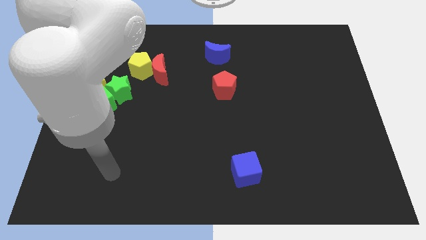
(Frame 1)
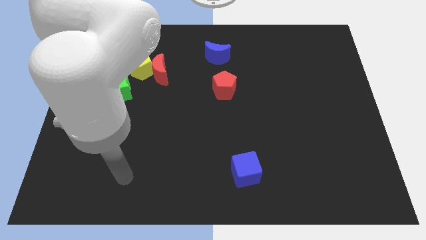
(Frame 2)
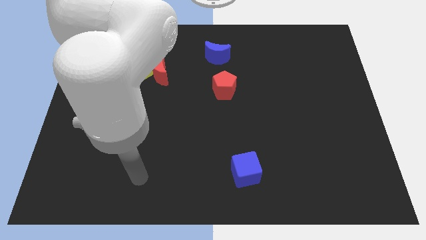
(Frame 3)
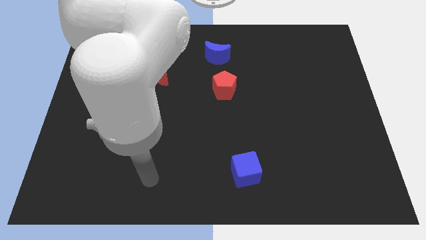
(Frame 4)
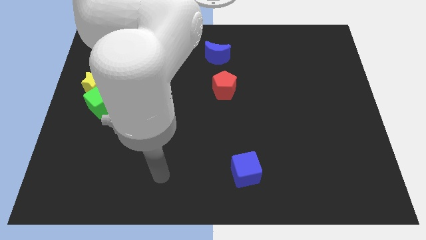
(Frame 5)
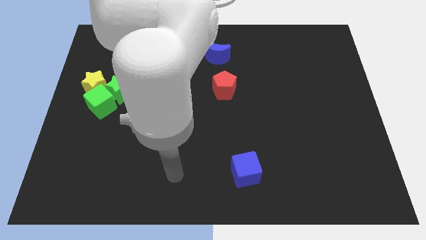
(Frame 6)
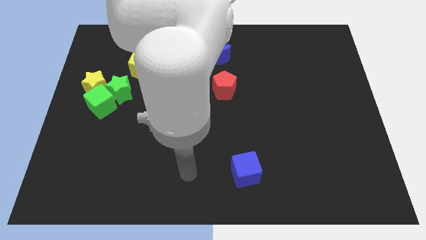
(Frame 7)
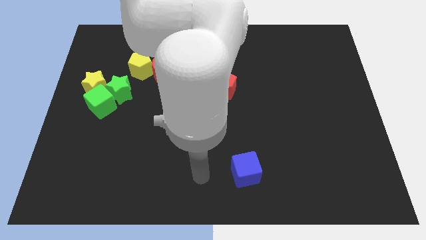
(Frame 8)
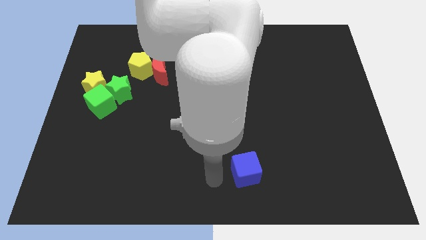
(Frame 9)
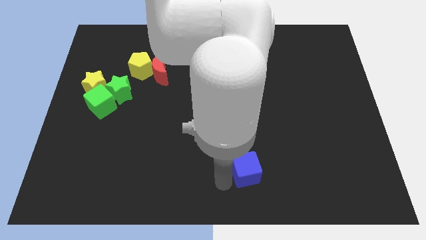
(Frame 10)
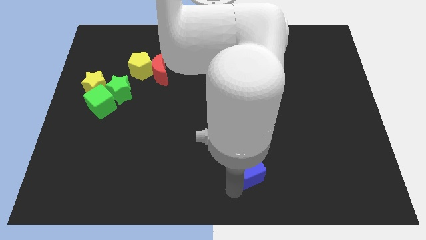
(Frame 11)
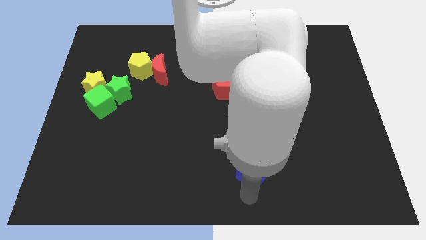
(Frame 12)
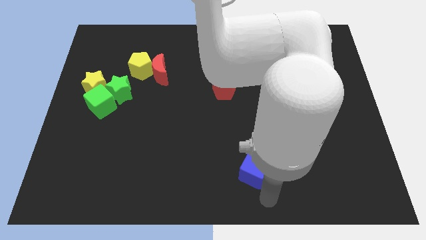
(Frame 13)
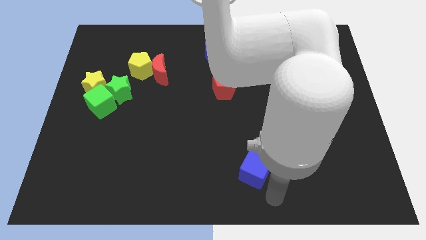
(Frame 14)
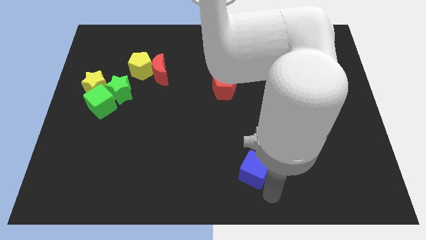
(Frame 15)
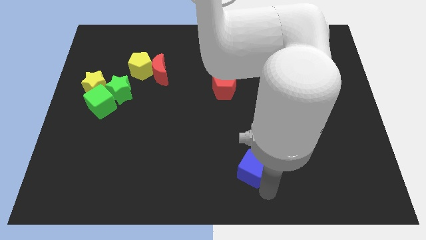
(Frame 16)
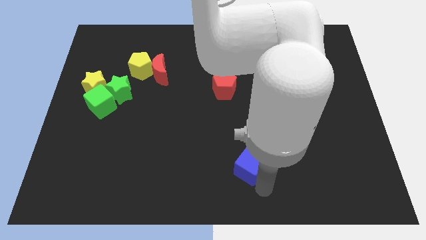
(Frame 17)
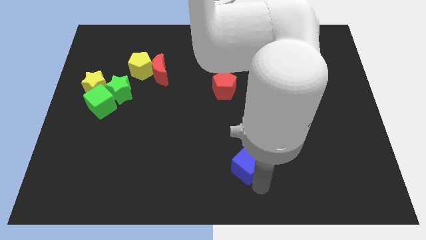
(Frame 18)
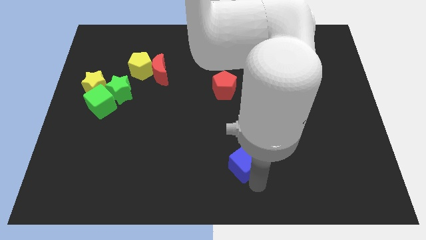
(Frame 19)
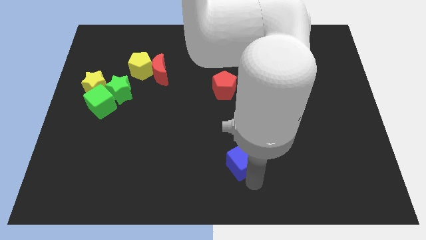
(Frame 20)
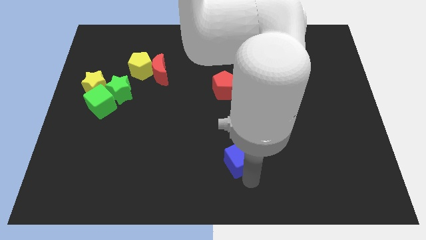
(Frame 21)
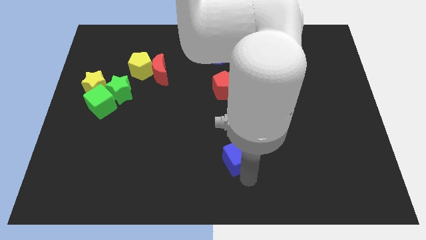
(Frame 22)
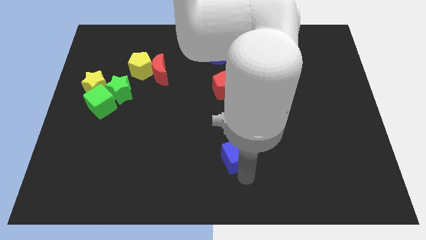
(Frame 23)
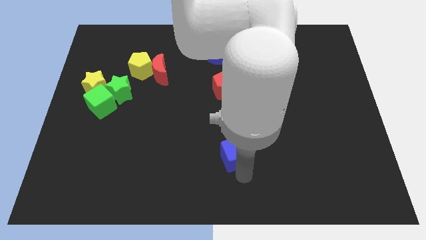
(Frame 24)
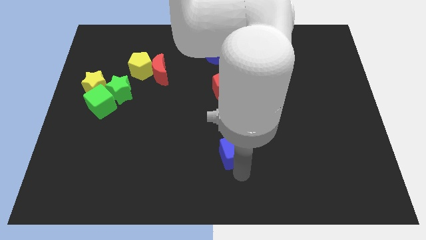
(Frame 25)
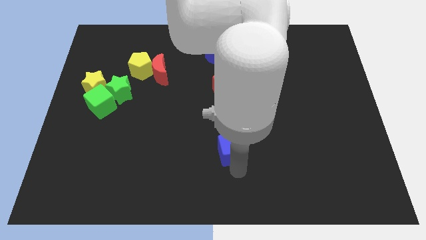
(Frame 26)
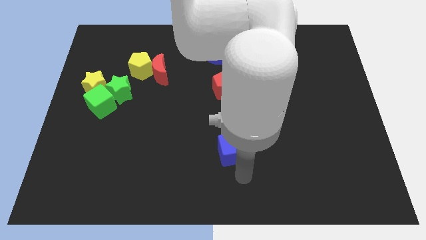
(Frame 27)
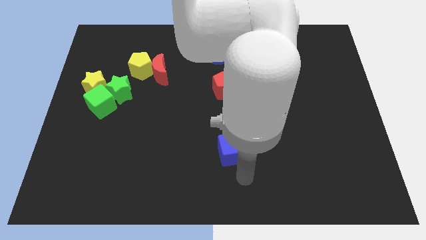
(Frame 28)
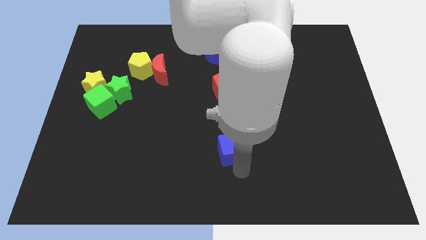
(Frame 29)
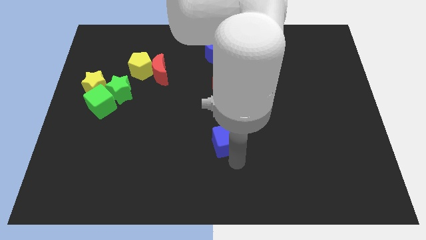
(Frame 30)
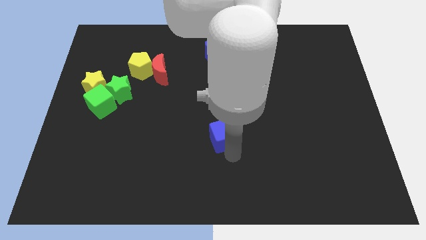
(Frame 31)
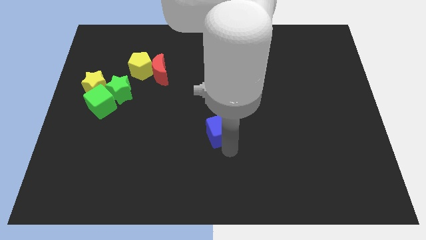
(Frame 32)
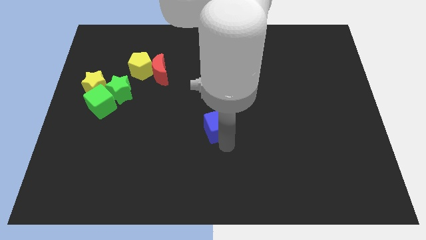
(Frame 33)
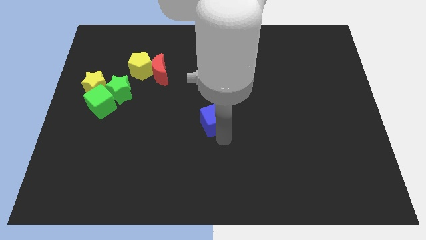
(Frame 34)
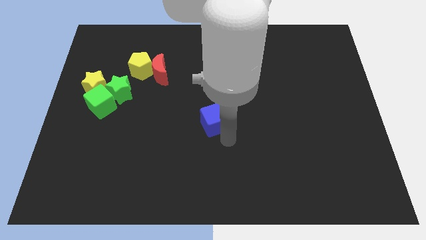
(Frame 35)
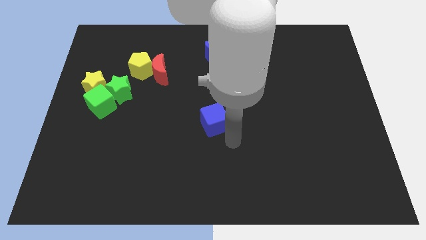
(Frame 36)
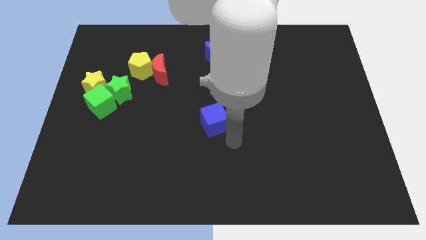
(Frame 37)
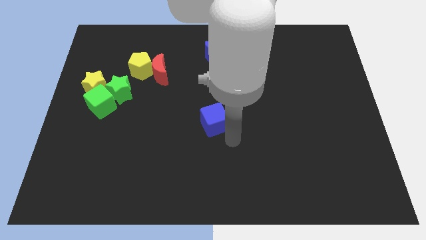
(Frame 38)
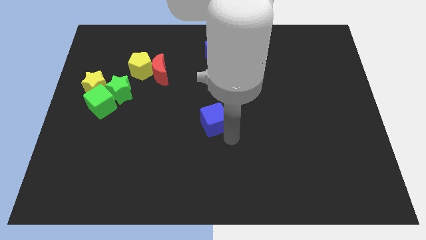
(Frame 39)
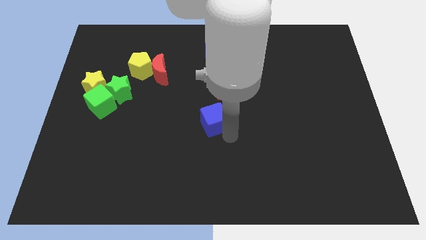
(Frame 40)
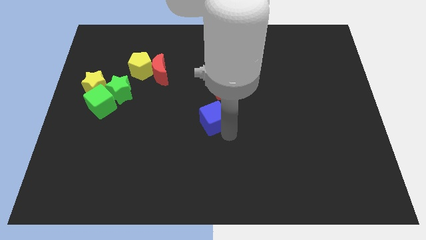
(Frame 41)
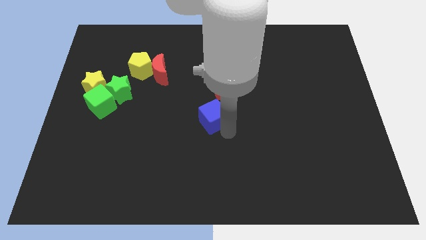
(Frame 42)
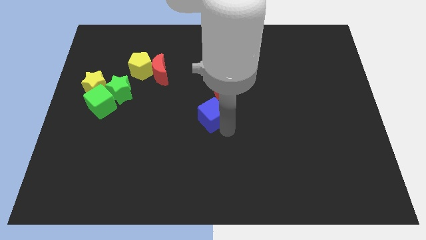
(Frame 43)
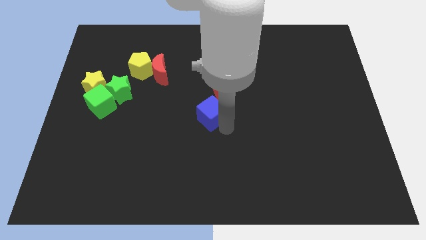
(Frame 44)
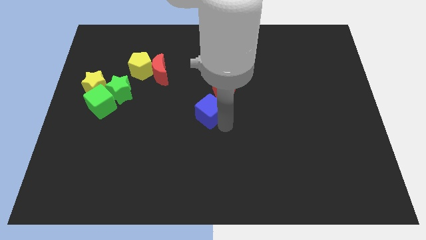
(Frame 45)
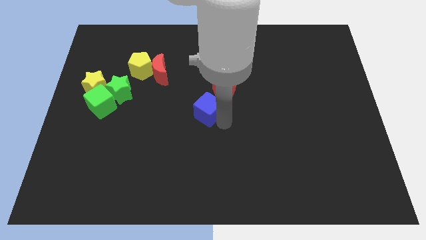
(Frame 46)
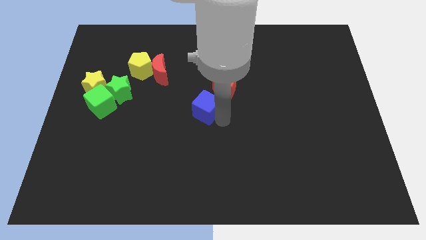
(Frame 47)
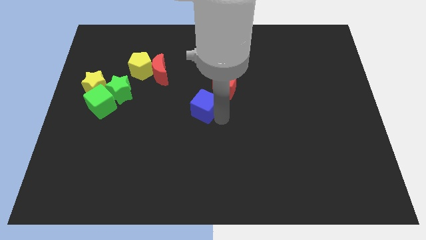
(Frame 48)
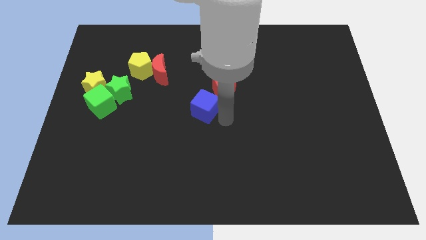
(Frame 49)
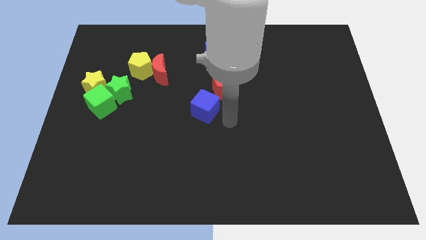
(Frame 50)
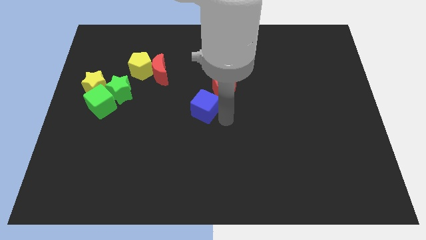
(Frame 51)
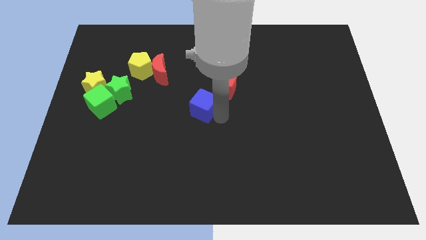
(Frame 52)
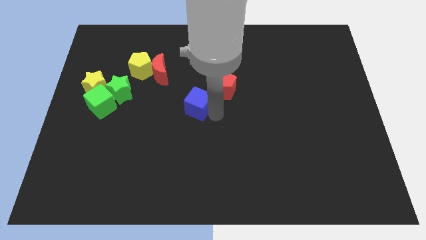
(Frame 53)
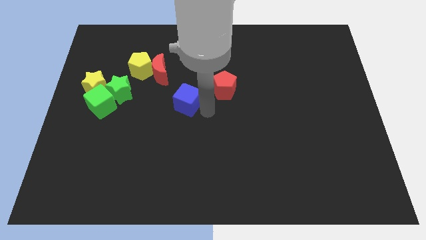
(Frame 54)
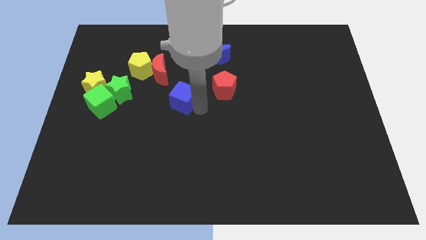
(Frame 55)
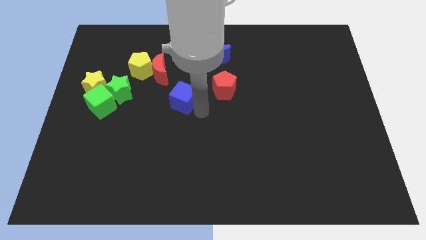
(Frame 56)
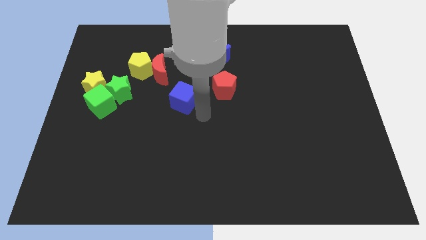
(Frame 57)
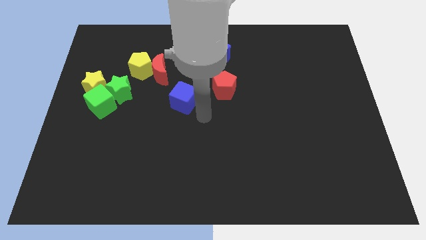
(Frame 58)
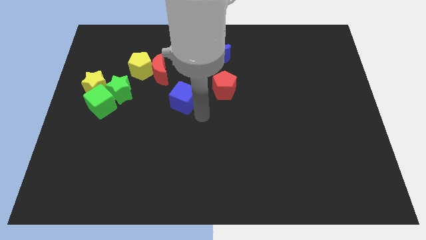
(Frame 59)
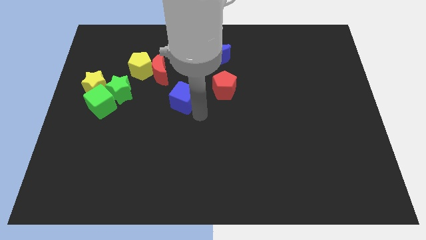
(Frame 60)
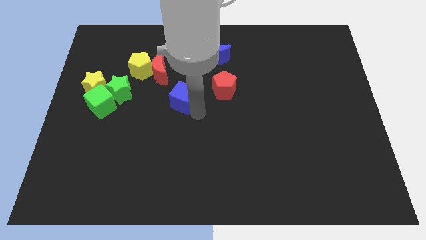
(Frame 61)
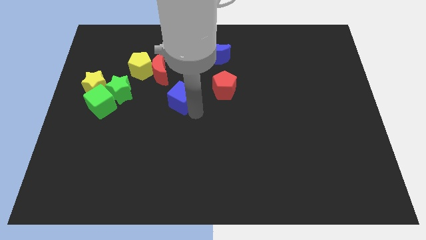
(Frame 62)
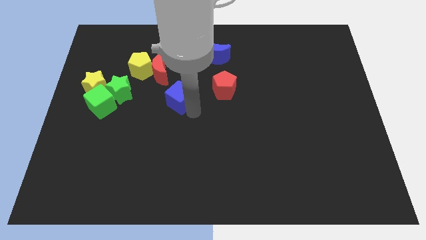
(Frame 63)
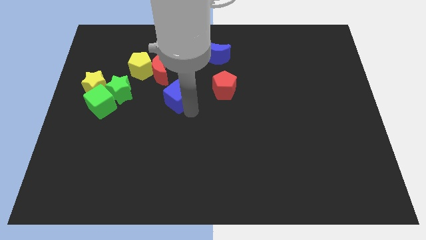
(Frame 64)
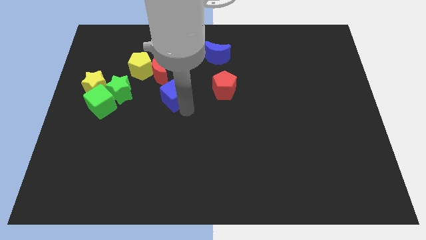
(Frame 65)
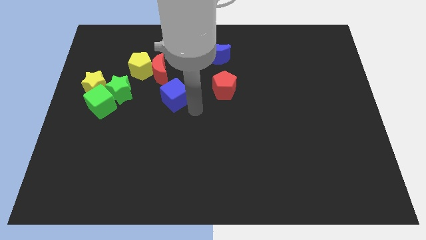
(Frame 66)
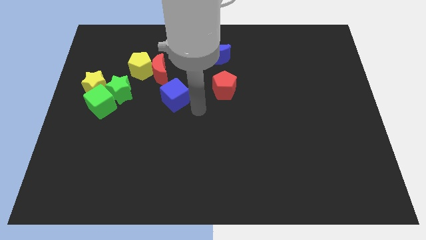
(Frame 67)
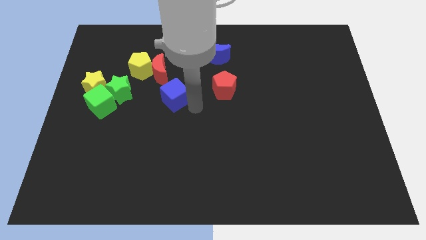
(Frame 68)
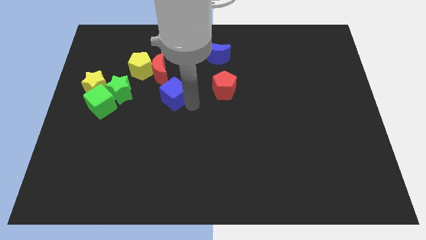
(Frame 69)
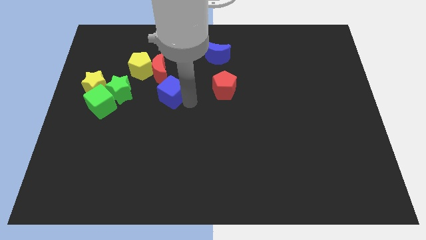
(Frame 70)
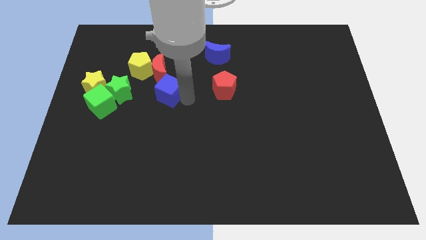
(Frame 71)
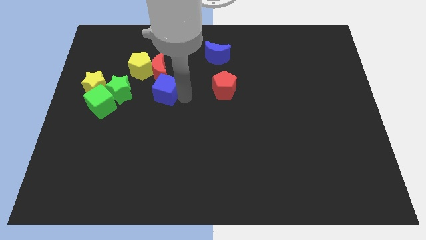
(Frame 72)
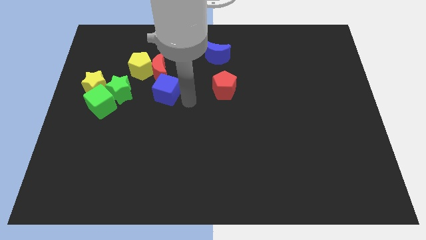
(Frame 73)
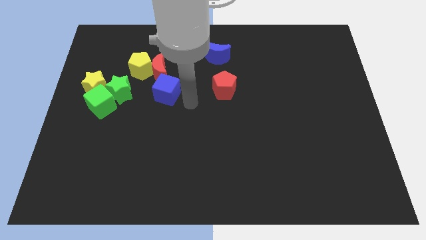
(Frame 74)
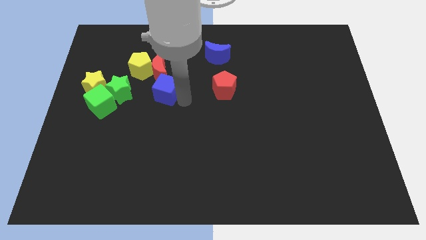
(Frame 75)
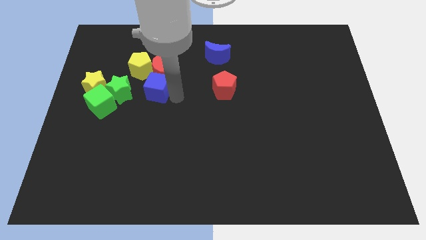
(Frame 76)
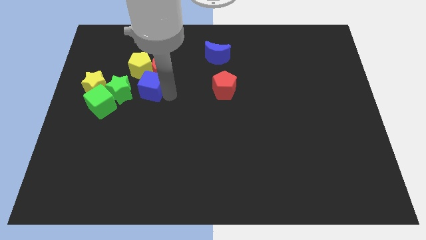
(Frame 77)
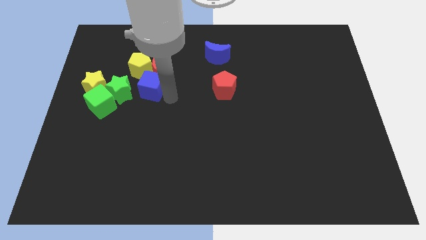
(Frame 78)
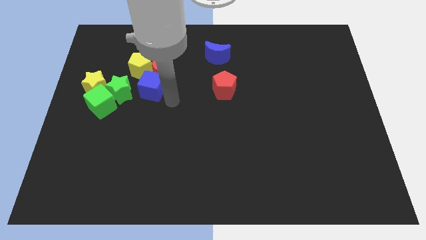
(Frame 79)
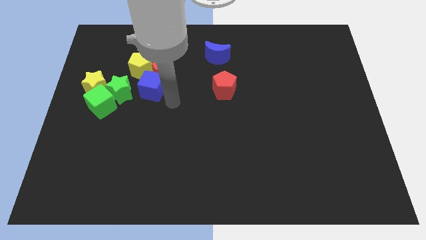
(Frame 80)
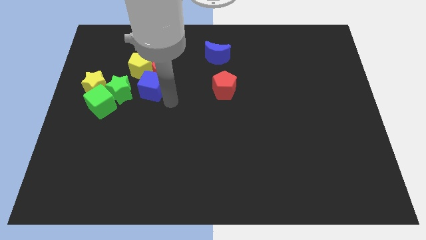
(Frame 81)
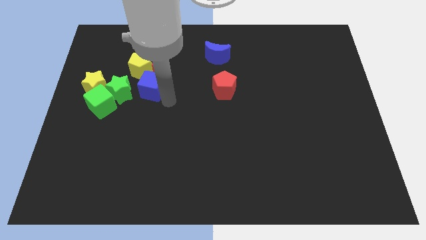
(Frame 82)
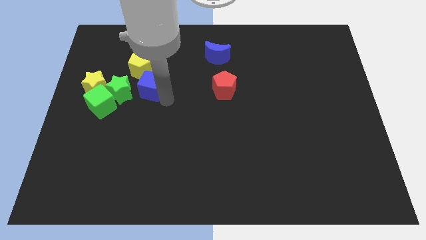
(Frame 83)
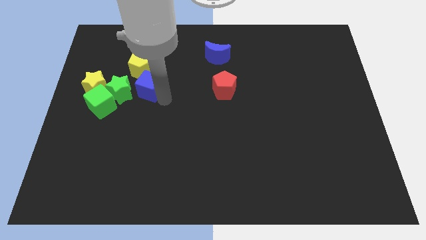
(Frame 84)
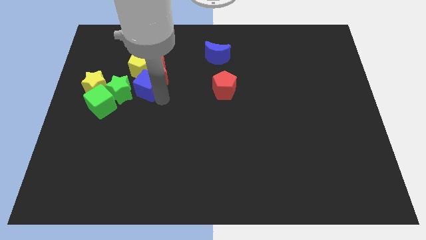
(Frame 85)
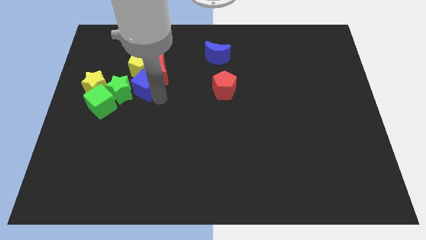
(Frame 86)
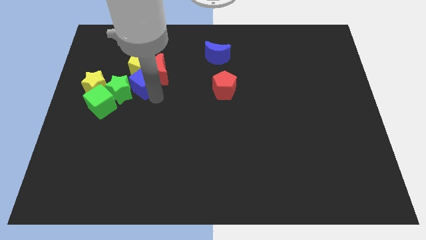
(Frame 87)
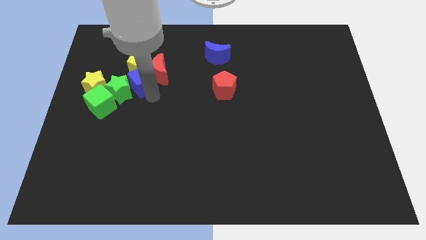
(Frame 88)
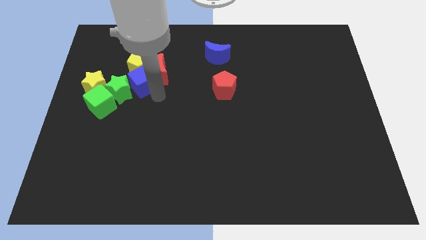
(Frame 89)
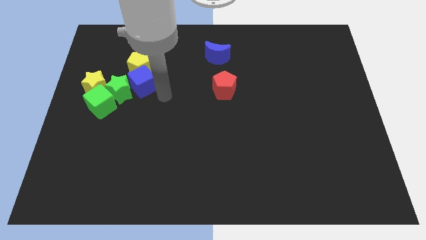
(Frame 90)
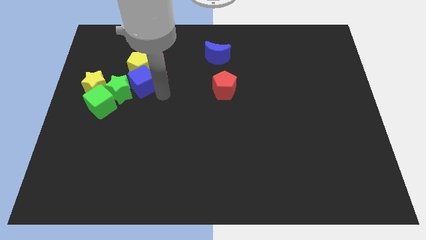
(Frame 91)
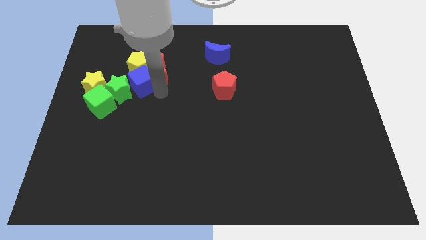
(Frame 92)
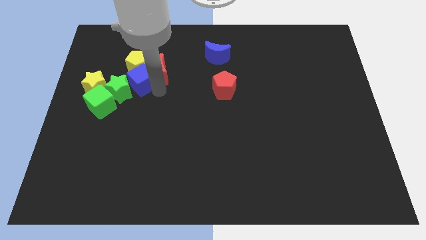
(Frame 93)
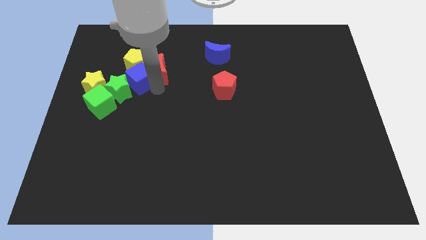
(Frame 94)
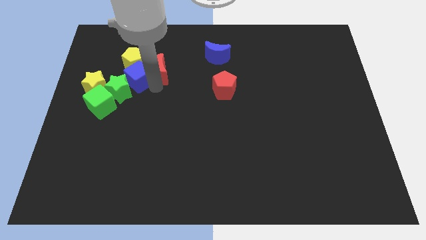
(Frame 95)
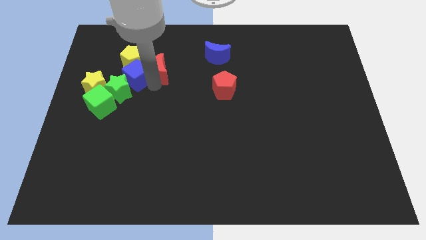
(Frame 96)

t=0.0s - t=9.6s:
push the blue cube to the top right of the yellow star
